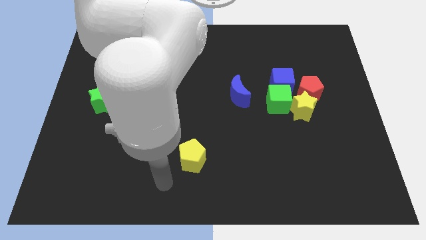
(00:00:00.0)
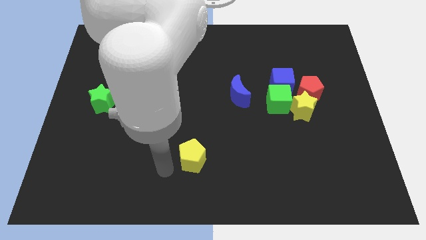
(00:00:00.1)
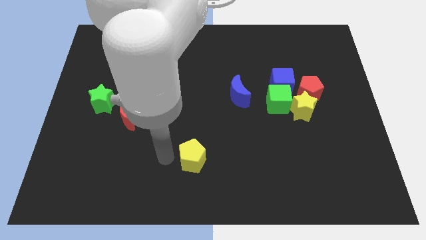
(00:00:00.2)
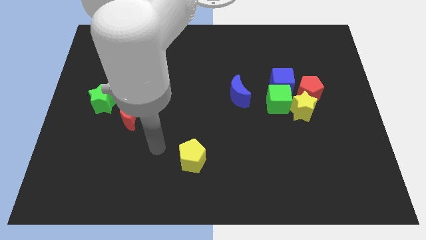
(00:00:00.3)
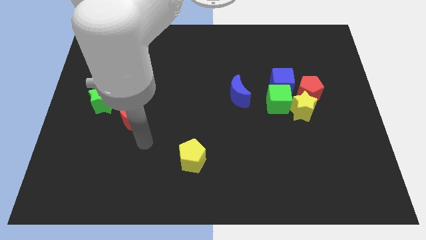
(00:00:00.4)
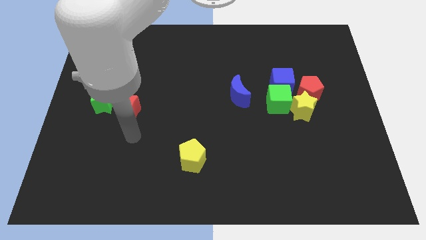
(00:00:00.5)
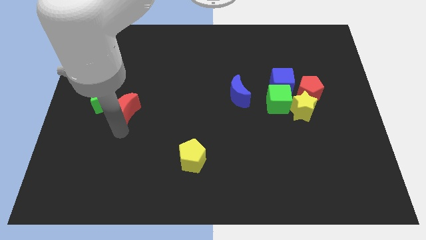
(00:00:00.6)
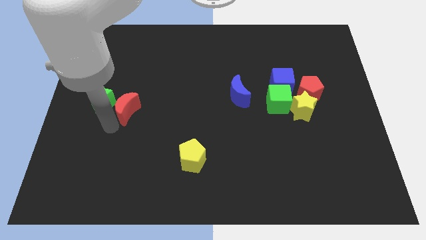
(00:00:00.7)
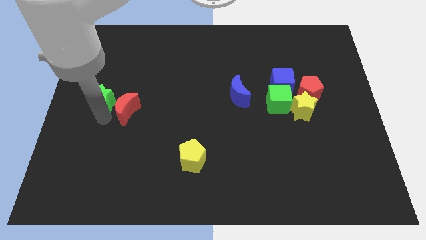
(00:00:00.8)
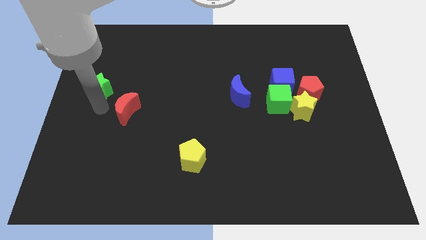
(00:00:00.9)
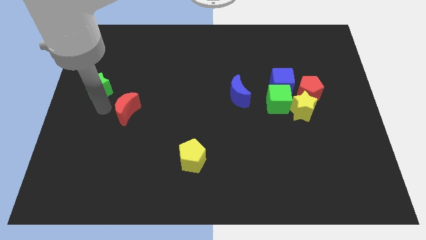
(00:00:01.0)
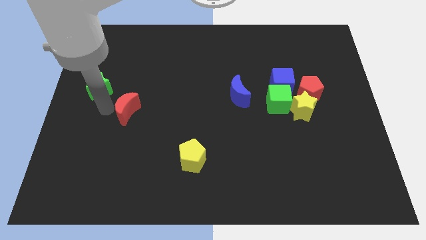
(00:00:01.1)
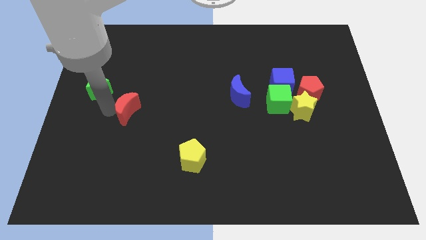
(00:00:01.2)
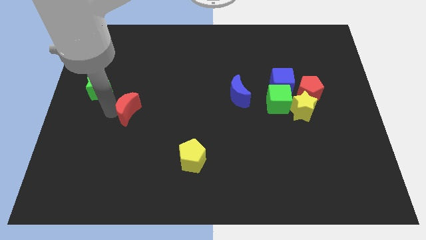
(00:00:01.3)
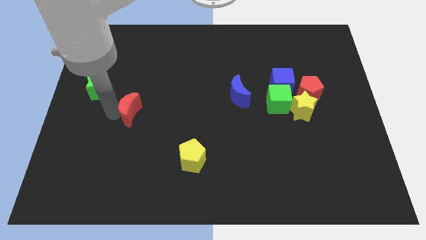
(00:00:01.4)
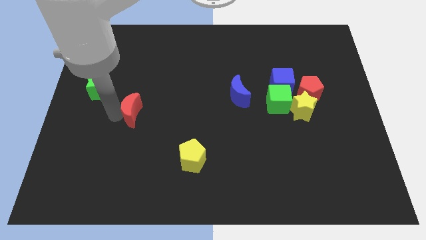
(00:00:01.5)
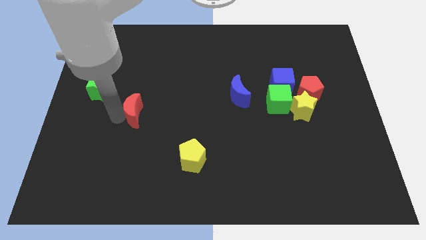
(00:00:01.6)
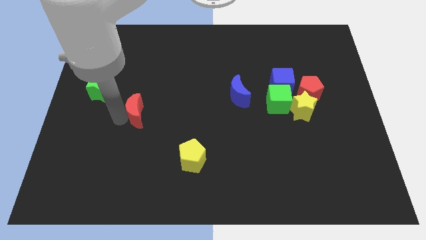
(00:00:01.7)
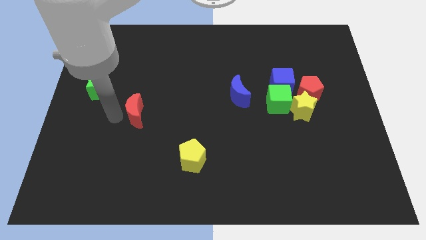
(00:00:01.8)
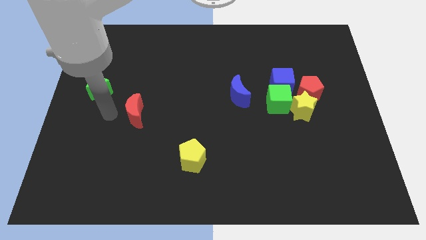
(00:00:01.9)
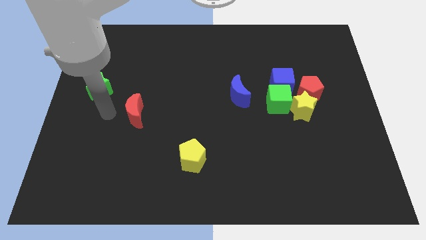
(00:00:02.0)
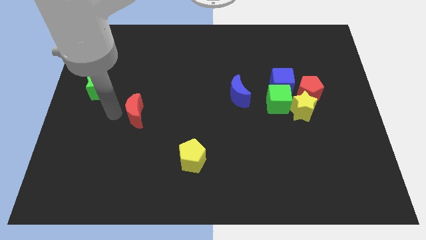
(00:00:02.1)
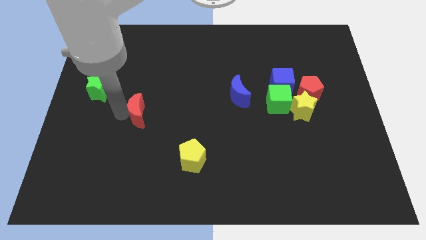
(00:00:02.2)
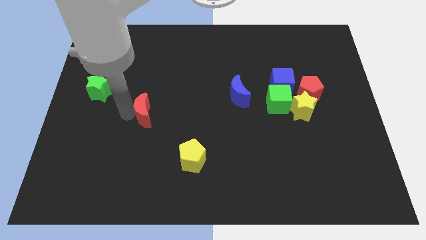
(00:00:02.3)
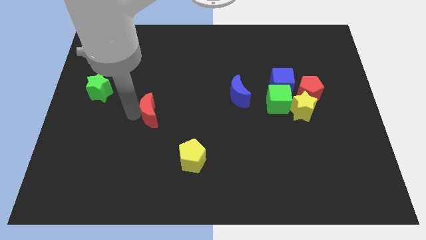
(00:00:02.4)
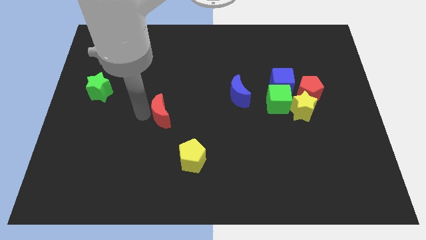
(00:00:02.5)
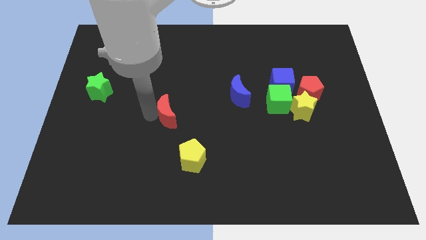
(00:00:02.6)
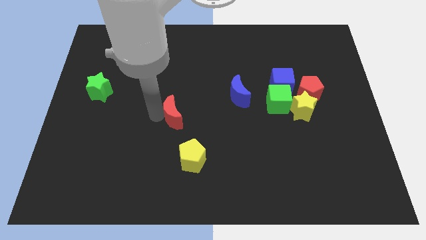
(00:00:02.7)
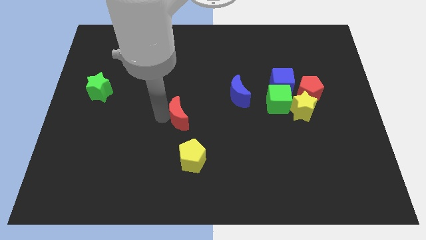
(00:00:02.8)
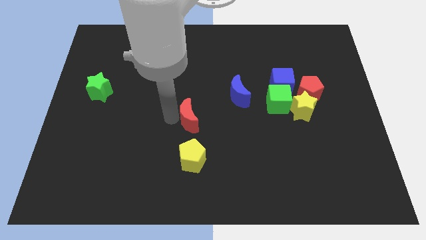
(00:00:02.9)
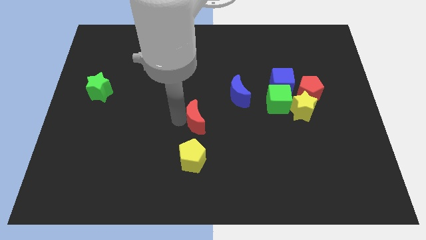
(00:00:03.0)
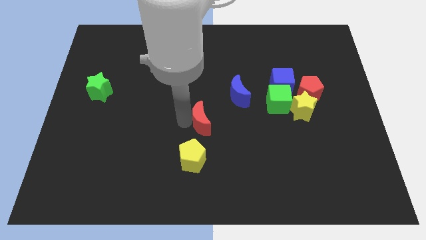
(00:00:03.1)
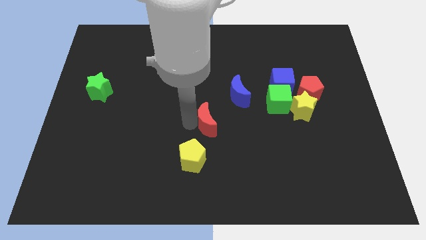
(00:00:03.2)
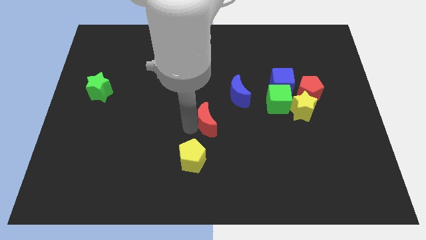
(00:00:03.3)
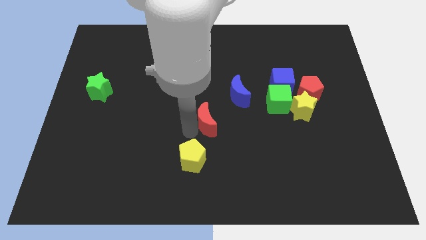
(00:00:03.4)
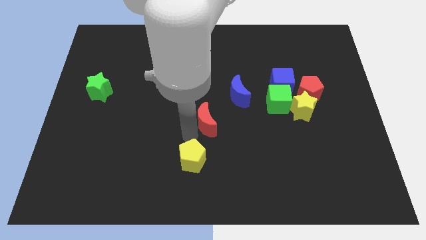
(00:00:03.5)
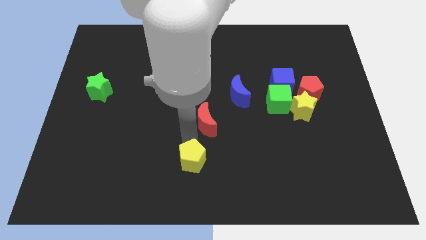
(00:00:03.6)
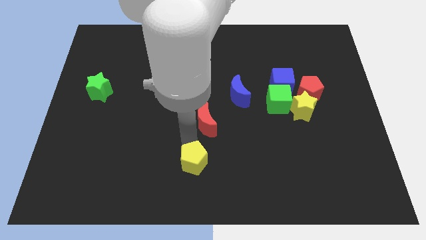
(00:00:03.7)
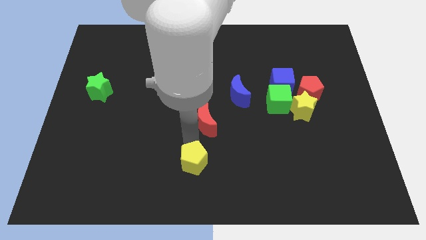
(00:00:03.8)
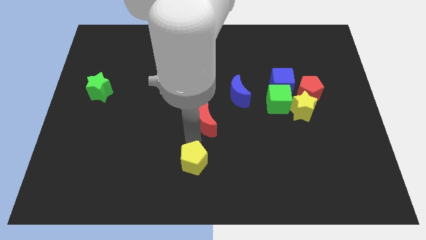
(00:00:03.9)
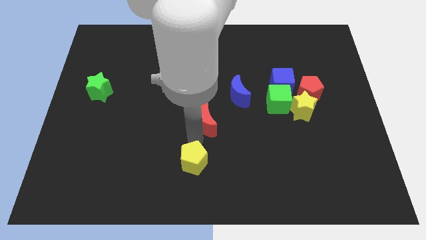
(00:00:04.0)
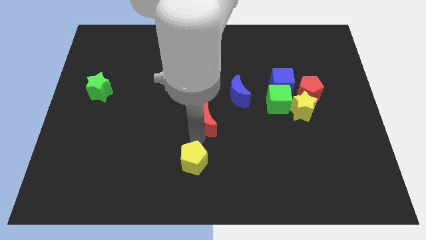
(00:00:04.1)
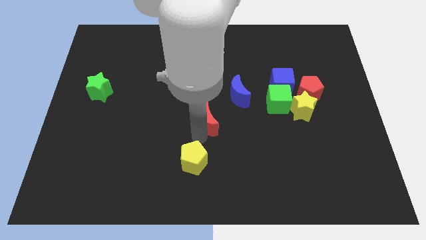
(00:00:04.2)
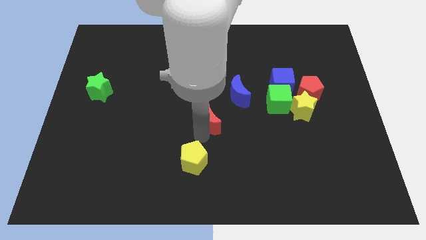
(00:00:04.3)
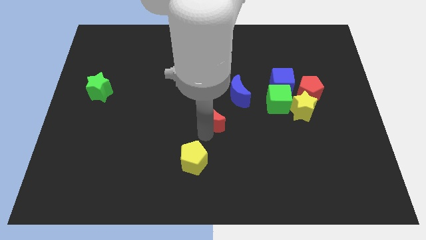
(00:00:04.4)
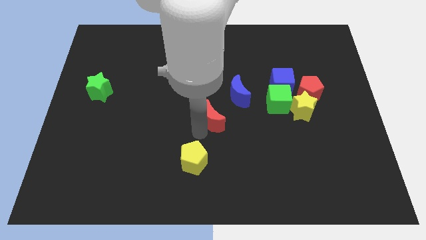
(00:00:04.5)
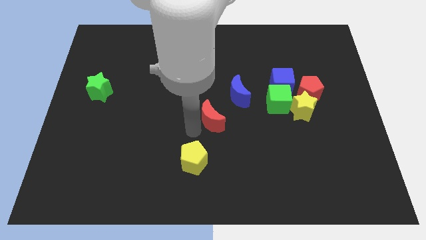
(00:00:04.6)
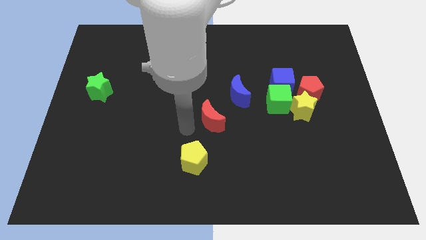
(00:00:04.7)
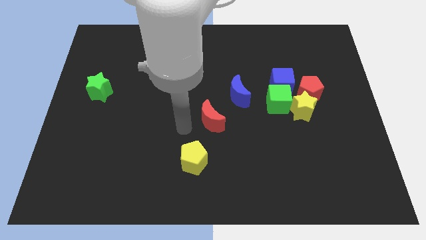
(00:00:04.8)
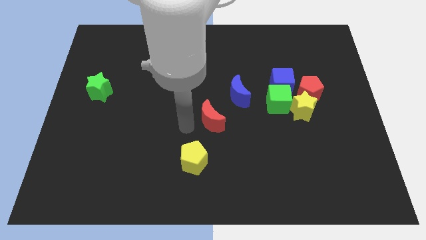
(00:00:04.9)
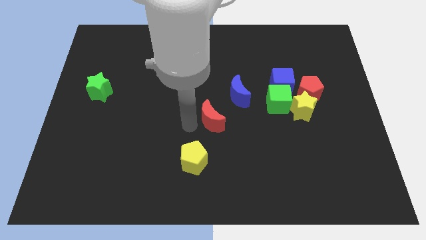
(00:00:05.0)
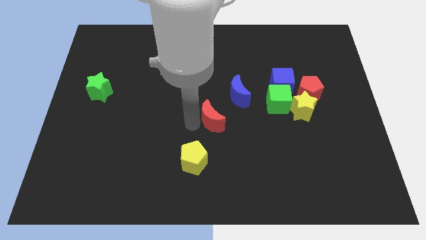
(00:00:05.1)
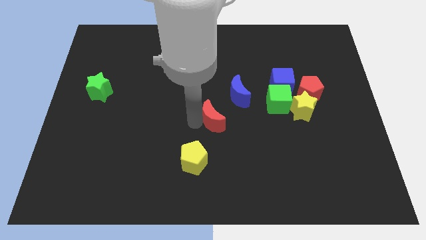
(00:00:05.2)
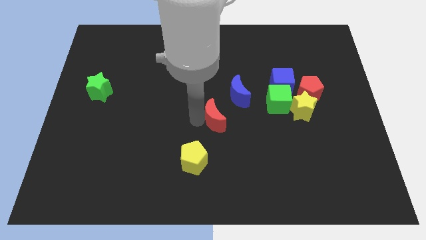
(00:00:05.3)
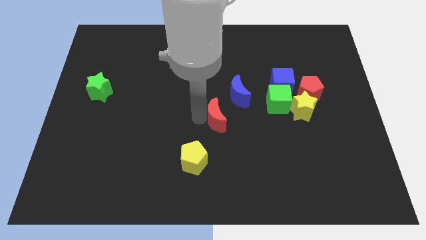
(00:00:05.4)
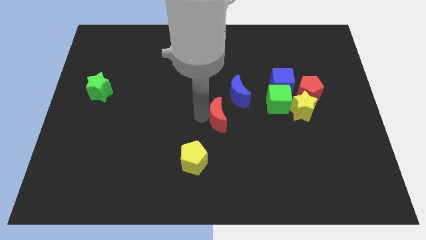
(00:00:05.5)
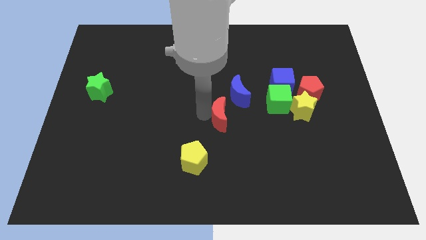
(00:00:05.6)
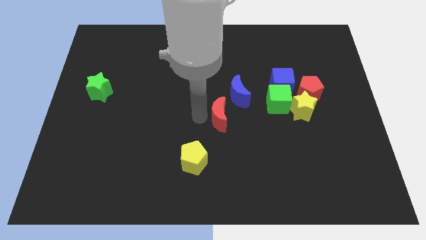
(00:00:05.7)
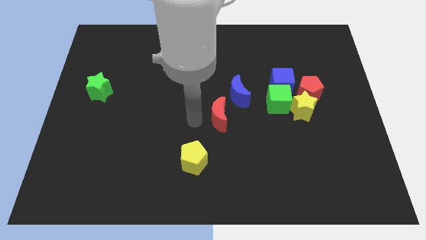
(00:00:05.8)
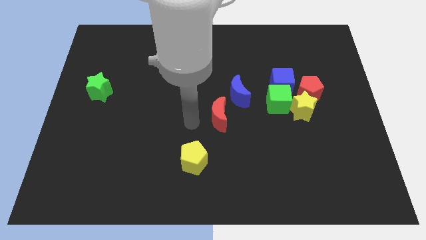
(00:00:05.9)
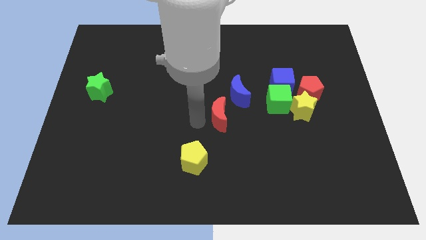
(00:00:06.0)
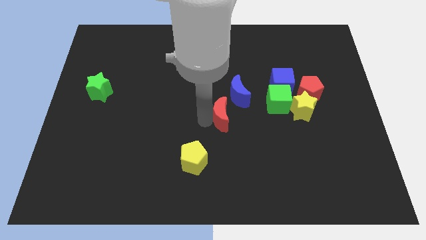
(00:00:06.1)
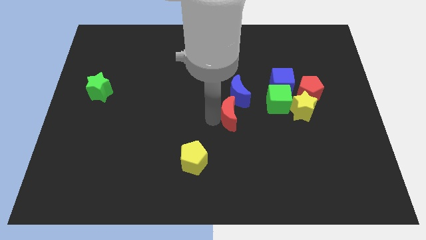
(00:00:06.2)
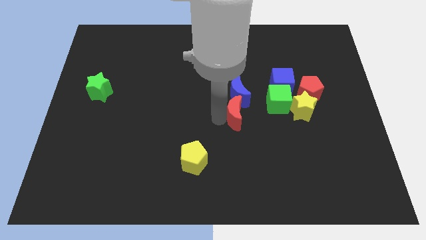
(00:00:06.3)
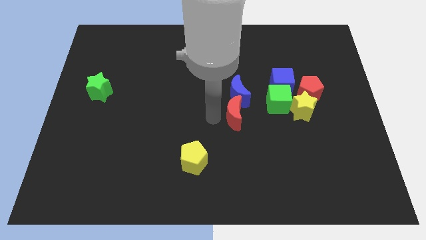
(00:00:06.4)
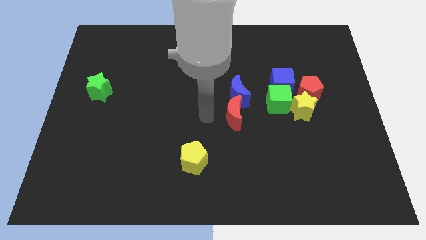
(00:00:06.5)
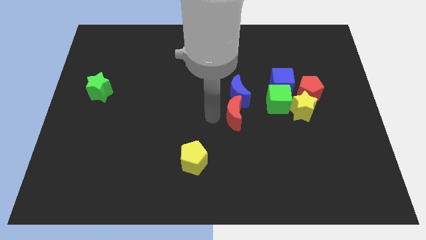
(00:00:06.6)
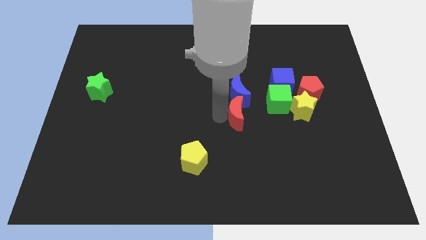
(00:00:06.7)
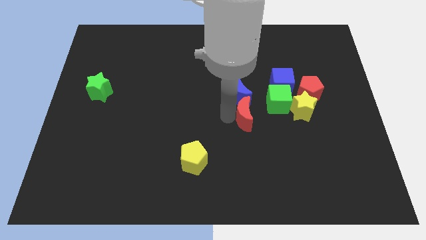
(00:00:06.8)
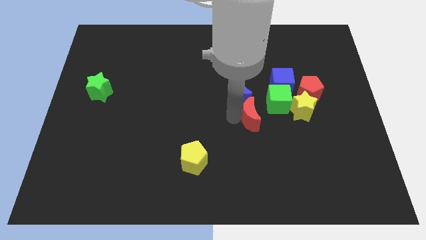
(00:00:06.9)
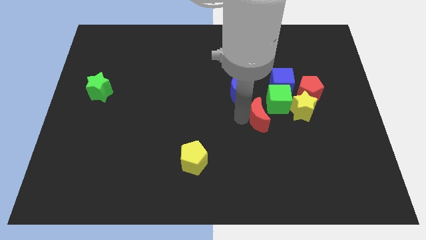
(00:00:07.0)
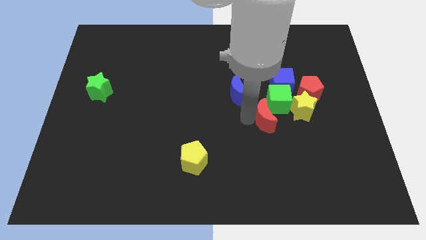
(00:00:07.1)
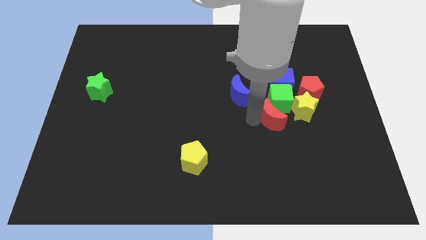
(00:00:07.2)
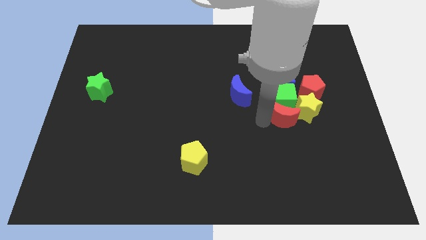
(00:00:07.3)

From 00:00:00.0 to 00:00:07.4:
push the red moon next to the yellow star
